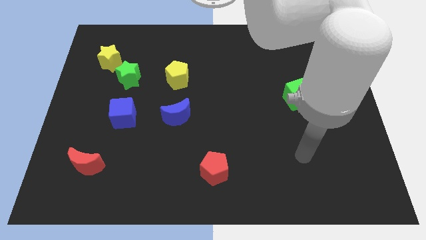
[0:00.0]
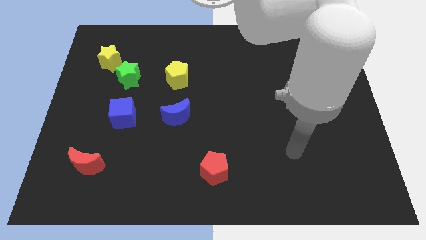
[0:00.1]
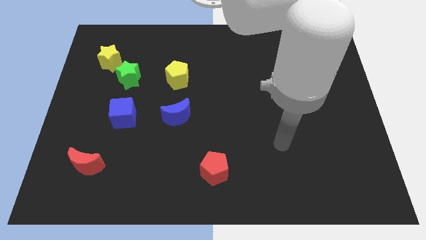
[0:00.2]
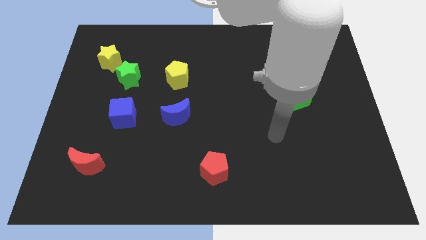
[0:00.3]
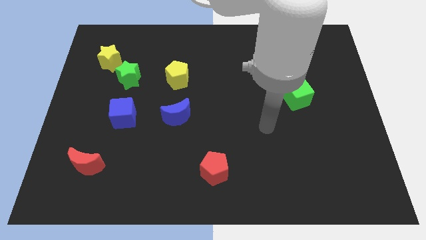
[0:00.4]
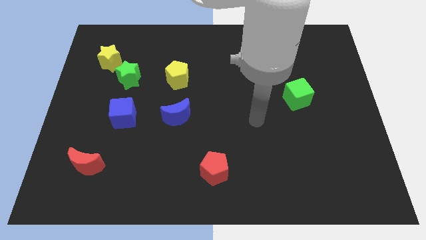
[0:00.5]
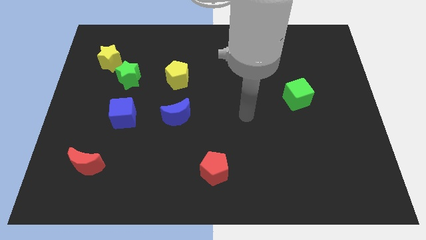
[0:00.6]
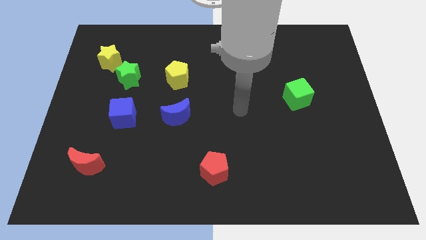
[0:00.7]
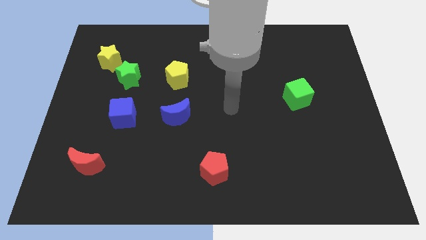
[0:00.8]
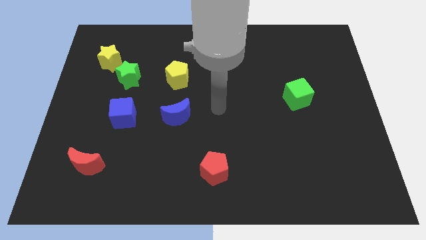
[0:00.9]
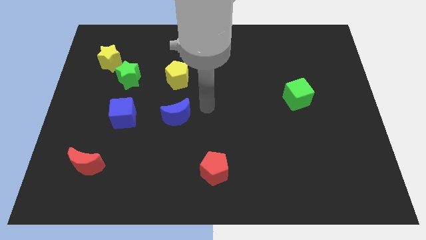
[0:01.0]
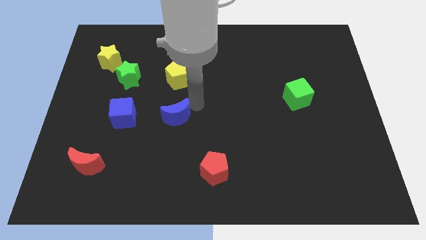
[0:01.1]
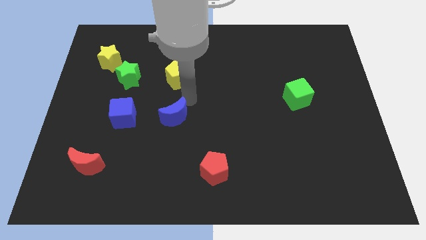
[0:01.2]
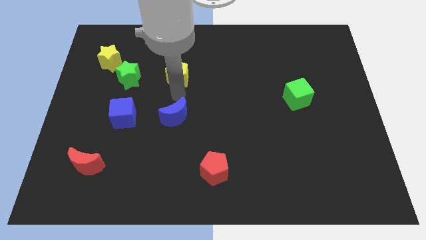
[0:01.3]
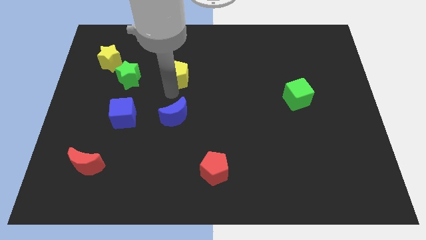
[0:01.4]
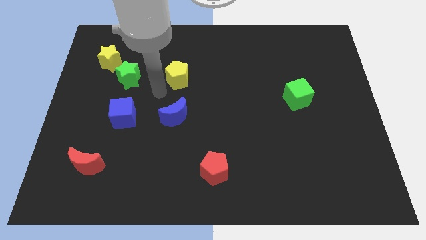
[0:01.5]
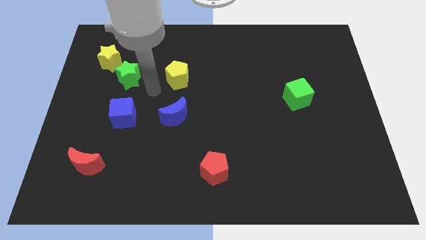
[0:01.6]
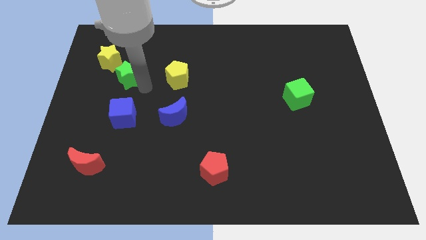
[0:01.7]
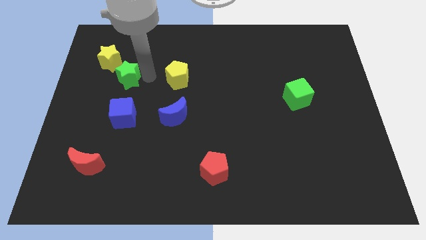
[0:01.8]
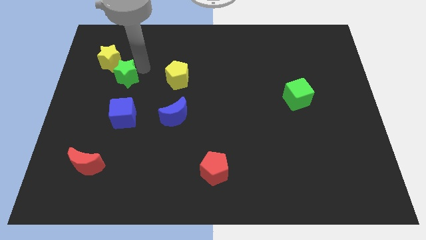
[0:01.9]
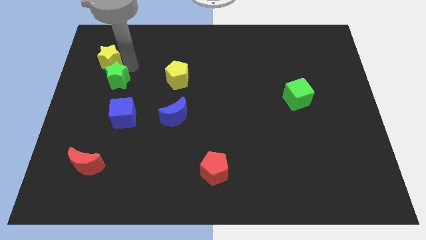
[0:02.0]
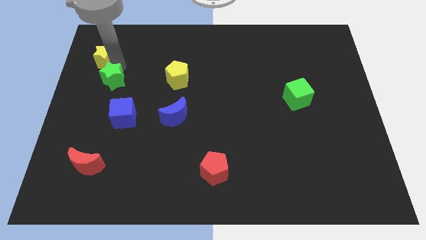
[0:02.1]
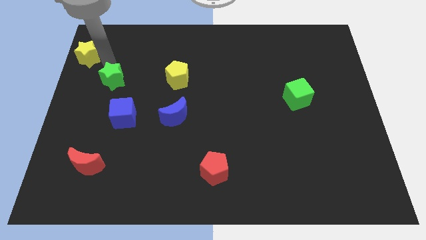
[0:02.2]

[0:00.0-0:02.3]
separate the green star from the yellow star

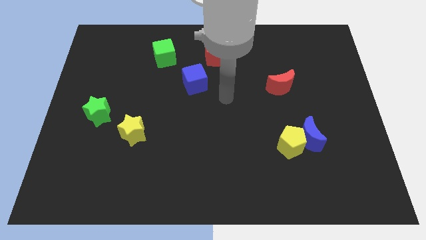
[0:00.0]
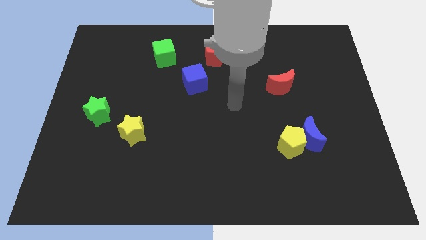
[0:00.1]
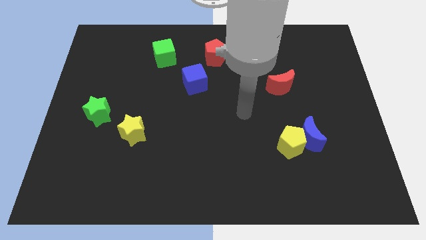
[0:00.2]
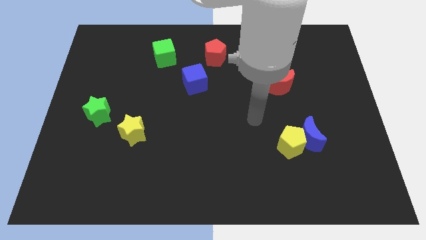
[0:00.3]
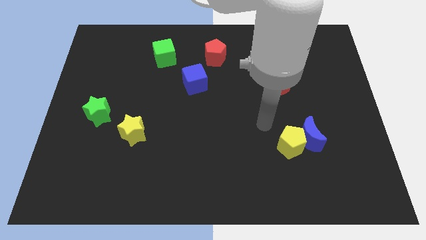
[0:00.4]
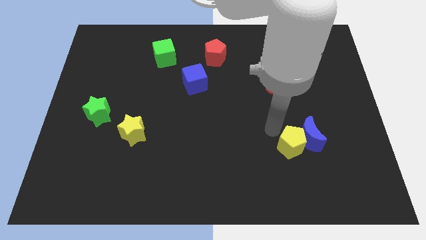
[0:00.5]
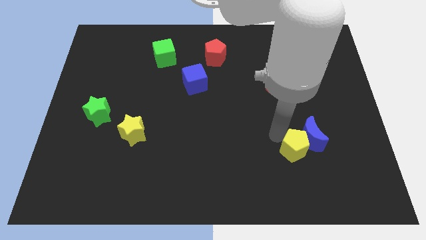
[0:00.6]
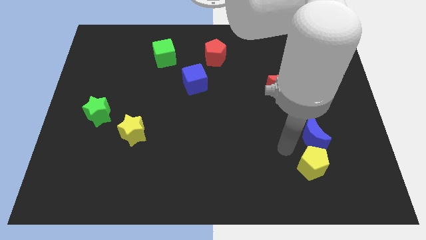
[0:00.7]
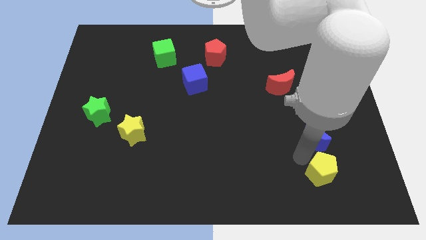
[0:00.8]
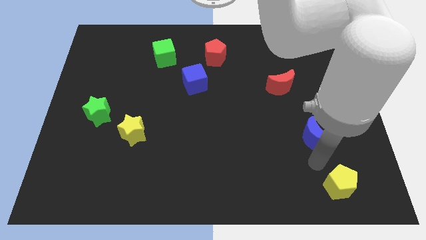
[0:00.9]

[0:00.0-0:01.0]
separate the blue moon from the yellow pentagon

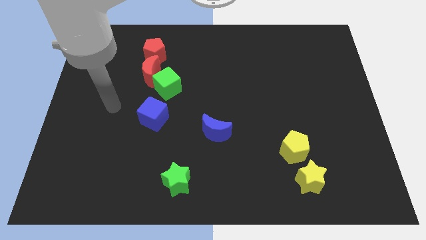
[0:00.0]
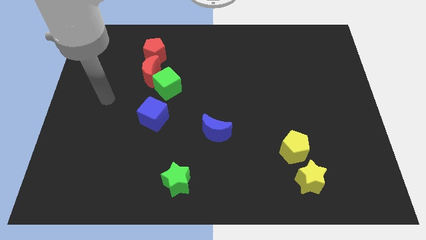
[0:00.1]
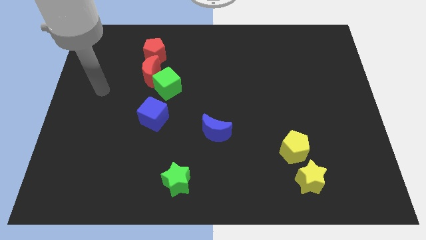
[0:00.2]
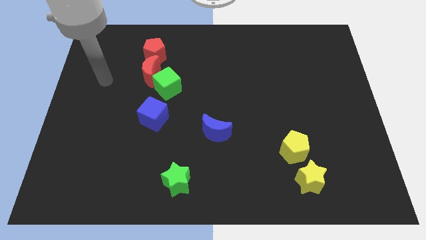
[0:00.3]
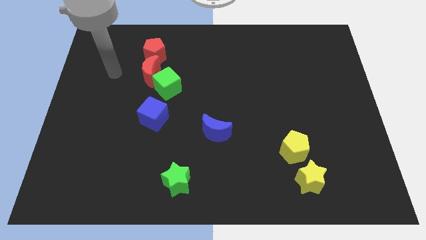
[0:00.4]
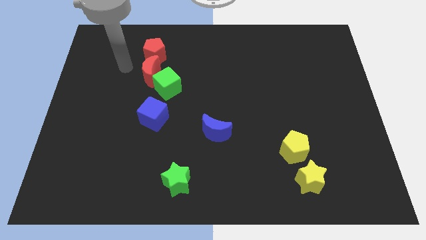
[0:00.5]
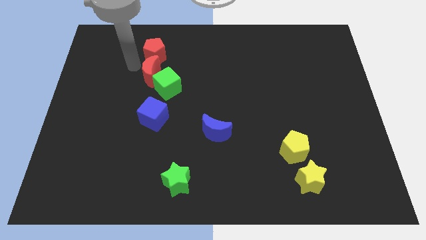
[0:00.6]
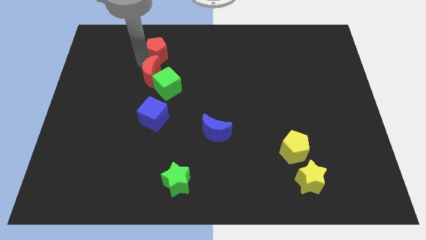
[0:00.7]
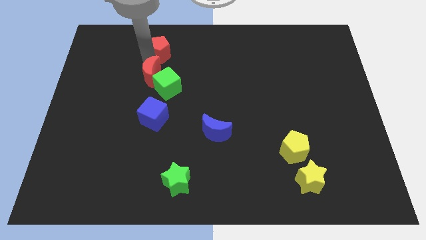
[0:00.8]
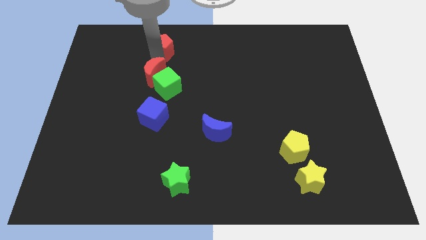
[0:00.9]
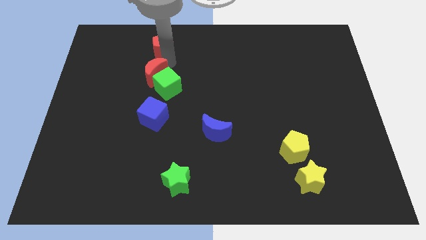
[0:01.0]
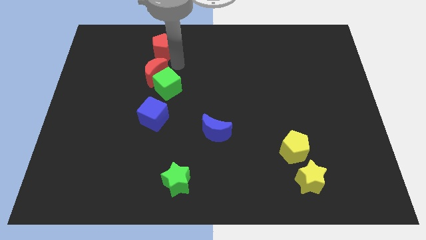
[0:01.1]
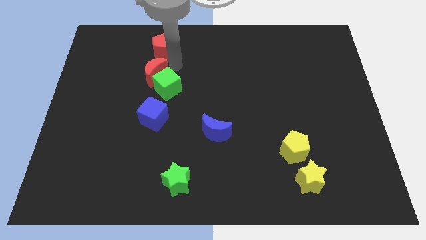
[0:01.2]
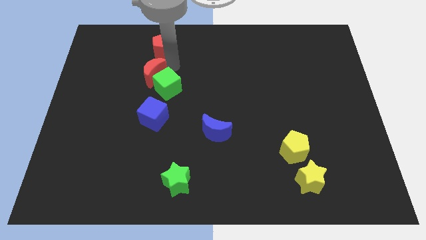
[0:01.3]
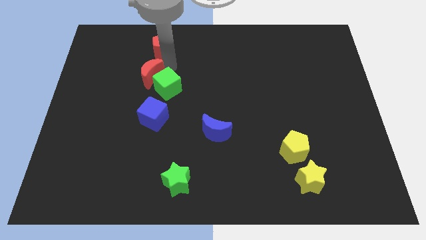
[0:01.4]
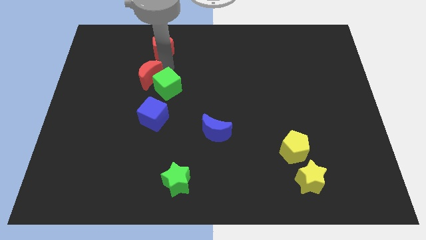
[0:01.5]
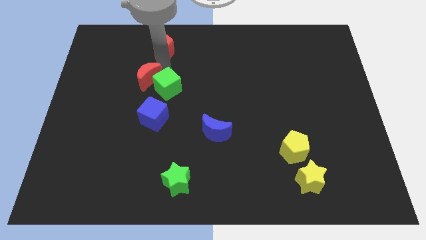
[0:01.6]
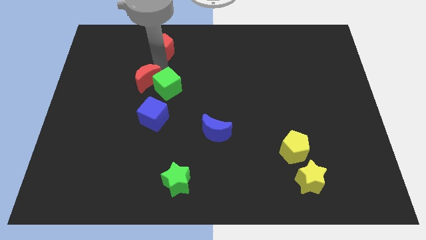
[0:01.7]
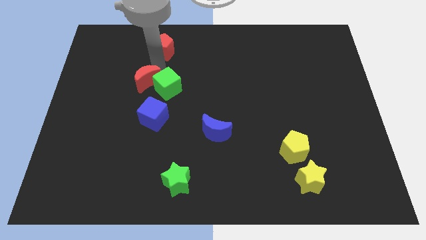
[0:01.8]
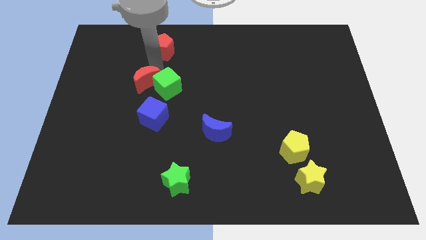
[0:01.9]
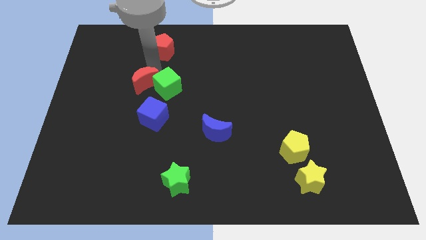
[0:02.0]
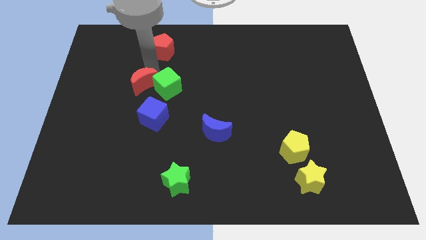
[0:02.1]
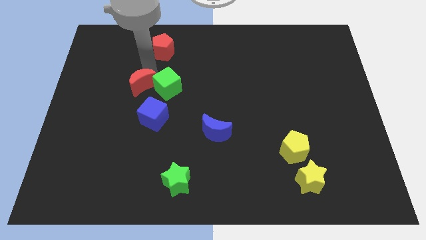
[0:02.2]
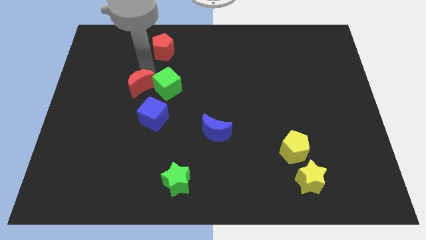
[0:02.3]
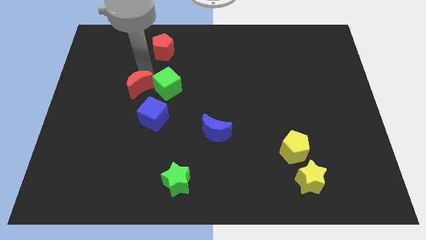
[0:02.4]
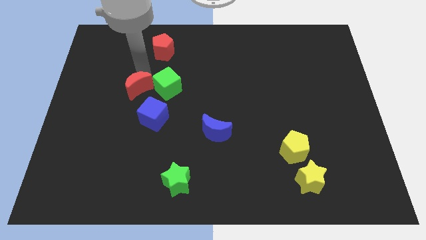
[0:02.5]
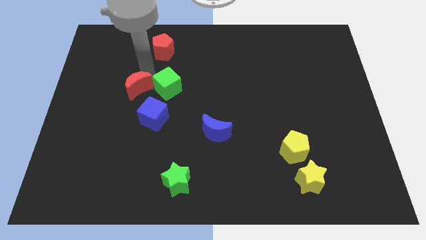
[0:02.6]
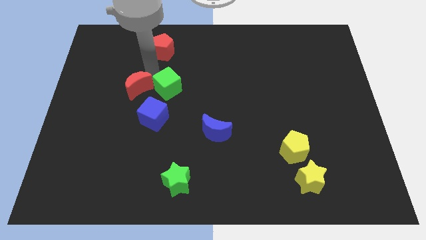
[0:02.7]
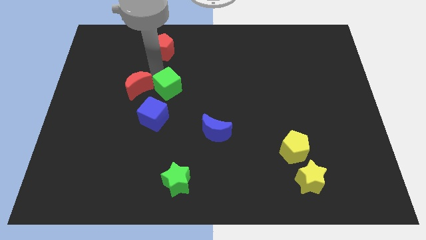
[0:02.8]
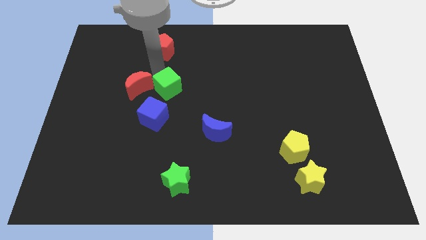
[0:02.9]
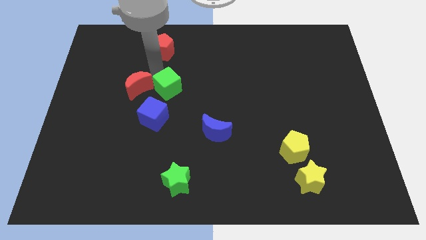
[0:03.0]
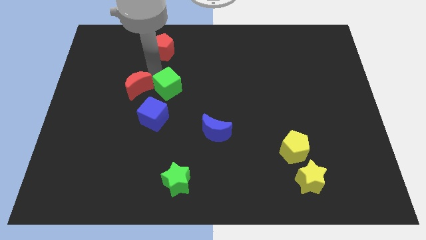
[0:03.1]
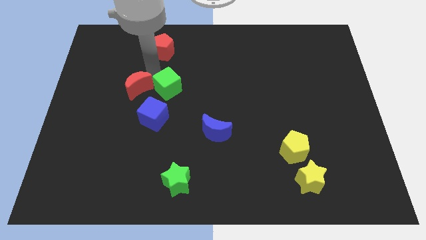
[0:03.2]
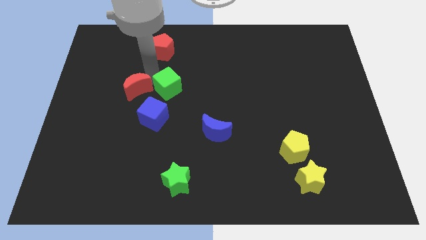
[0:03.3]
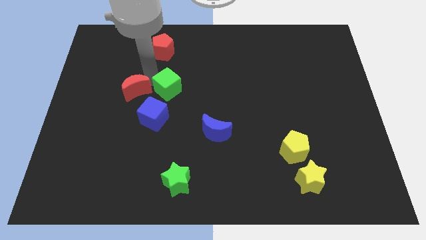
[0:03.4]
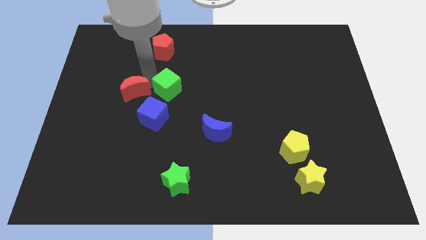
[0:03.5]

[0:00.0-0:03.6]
separate the red moon from the green cube and red pentagon

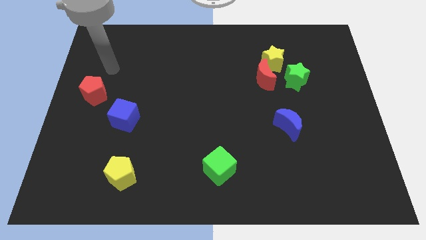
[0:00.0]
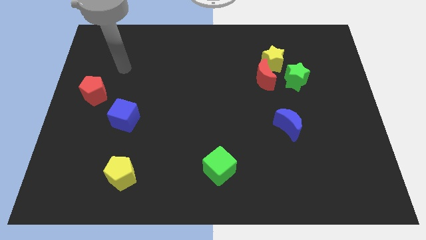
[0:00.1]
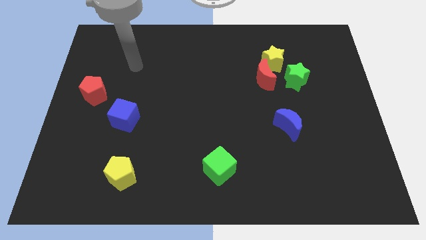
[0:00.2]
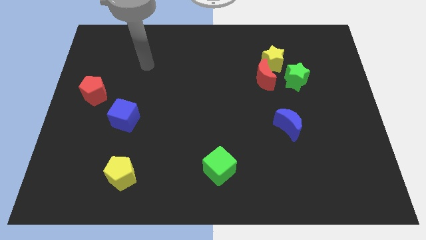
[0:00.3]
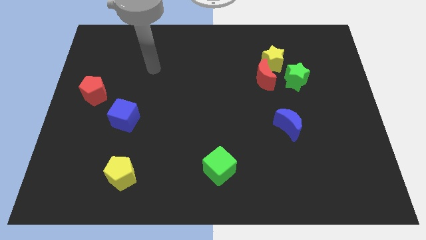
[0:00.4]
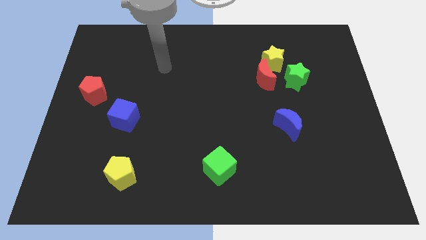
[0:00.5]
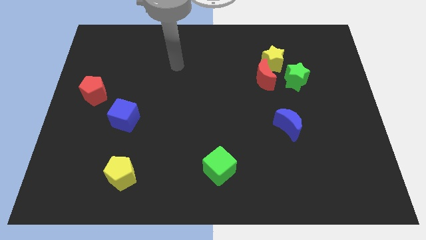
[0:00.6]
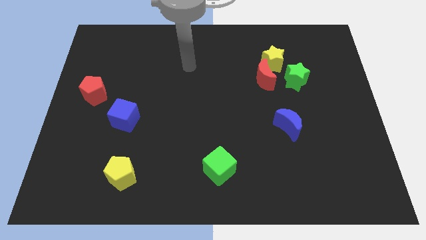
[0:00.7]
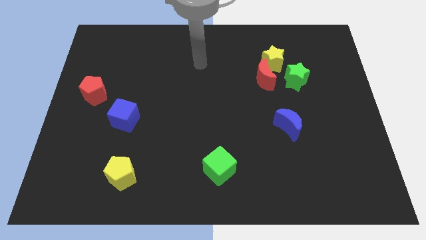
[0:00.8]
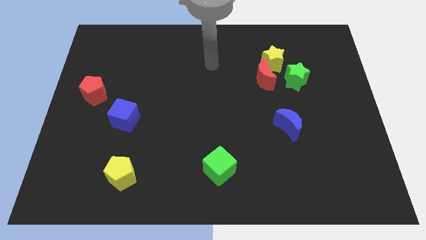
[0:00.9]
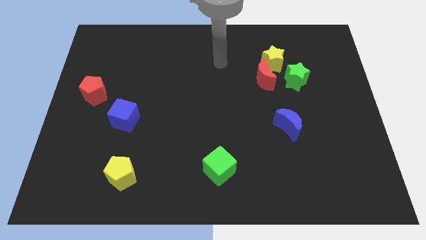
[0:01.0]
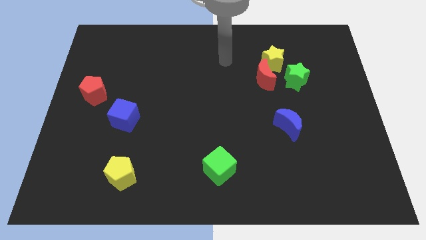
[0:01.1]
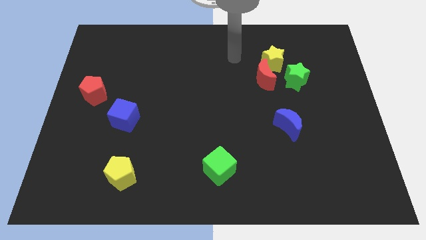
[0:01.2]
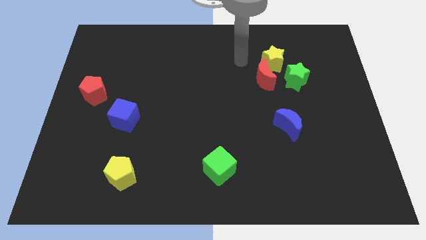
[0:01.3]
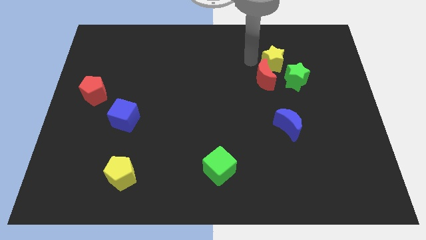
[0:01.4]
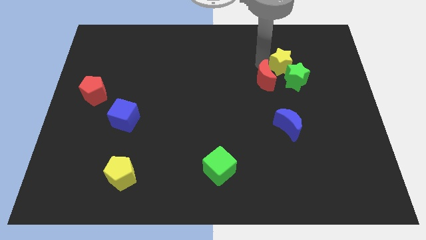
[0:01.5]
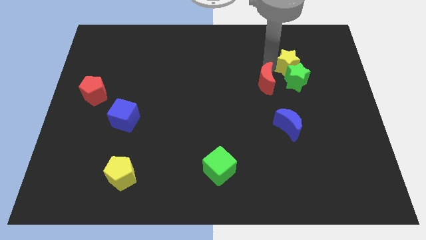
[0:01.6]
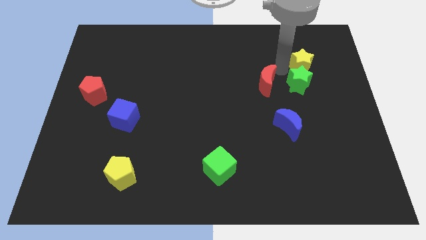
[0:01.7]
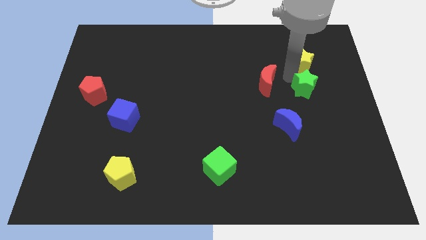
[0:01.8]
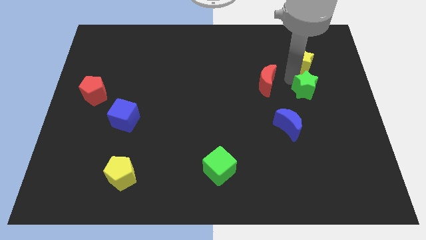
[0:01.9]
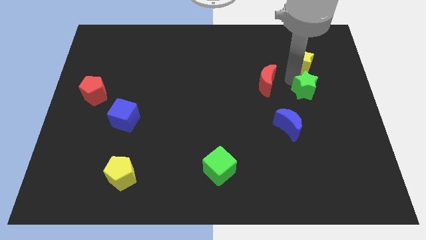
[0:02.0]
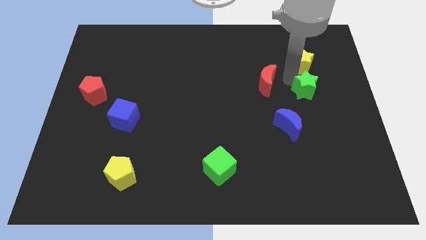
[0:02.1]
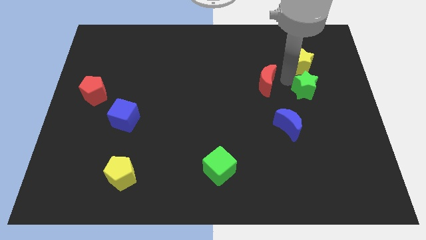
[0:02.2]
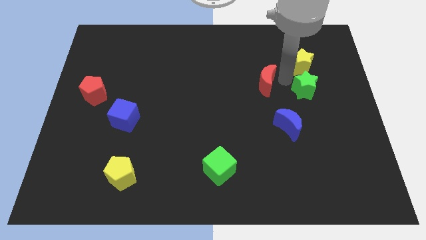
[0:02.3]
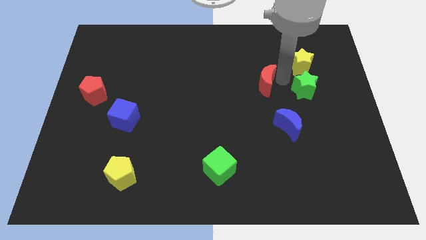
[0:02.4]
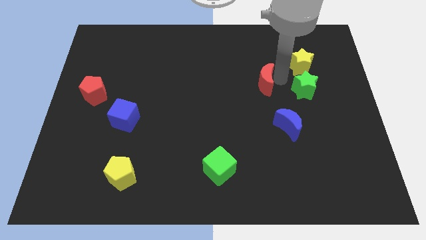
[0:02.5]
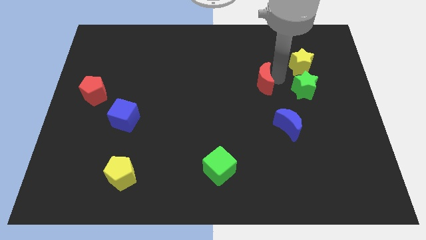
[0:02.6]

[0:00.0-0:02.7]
move the red moon away from the yellow star and green star

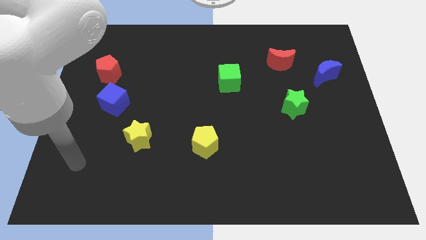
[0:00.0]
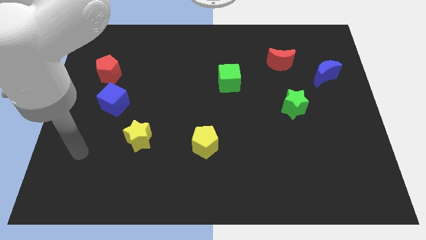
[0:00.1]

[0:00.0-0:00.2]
pull the red pentagon apart from the blue cube
